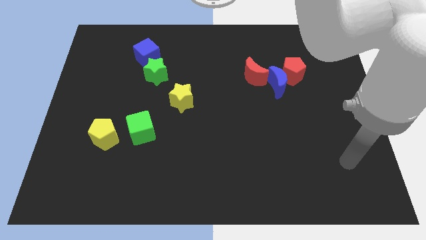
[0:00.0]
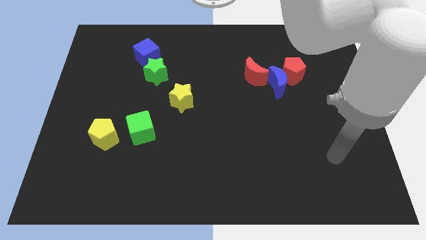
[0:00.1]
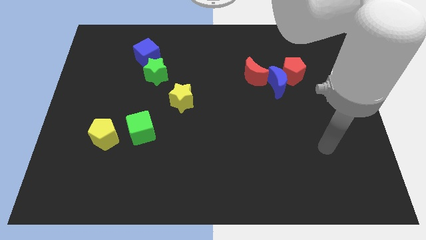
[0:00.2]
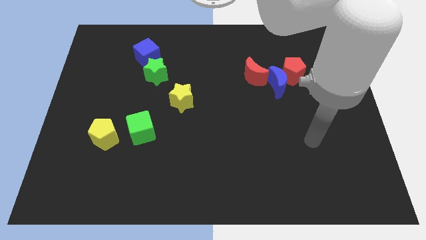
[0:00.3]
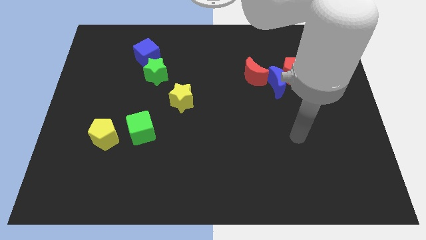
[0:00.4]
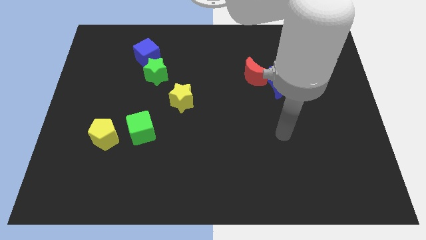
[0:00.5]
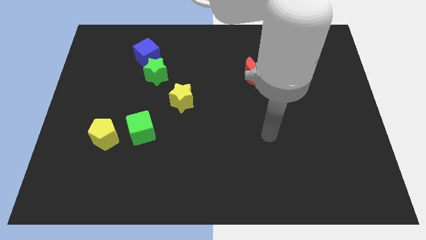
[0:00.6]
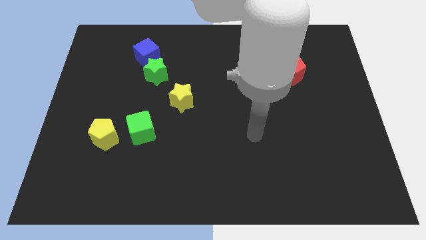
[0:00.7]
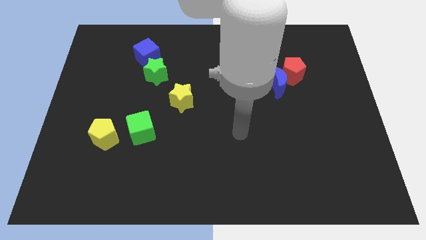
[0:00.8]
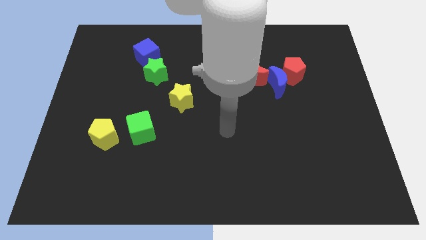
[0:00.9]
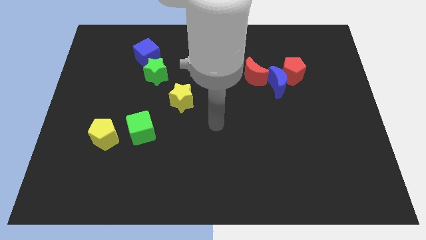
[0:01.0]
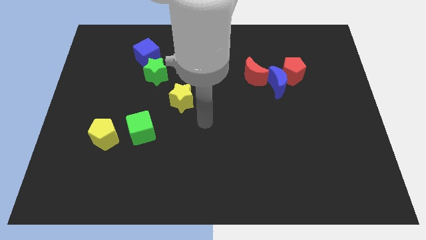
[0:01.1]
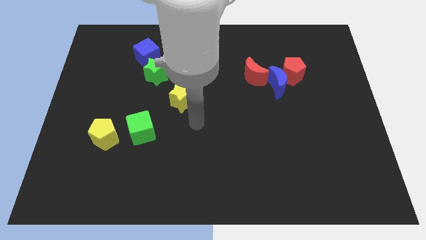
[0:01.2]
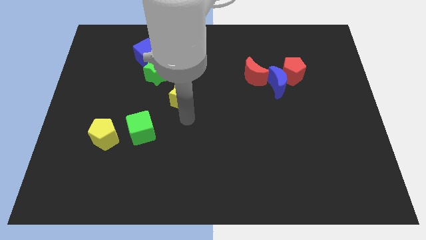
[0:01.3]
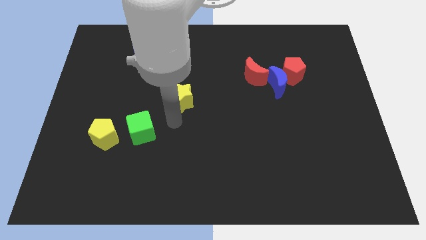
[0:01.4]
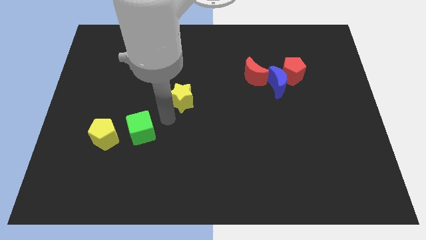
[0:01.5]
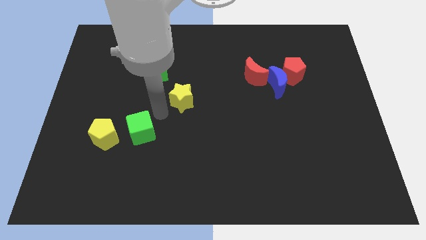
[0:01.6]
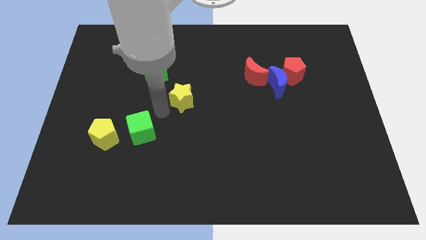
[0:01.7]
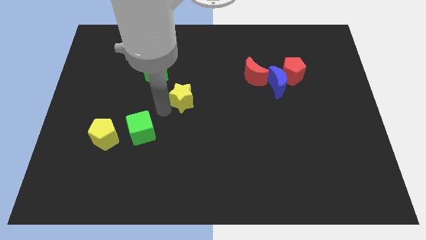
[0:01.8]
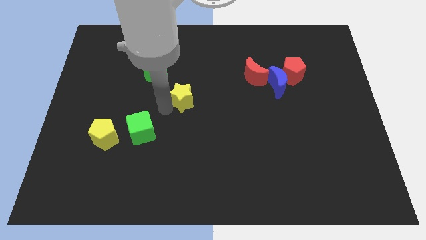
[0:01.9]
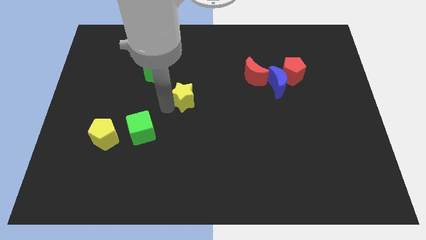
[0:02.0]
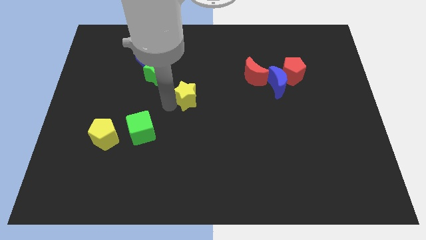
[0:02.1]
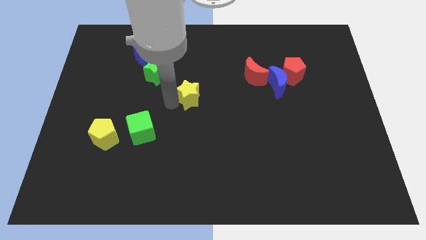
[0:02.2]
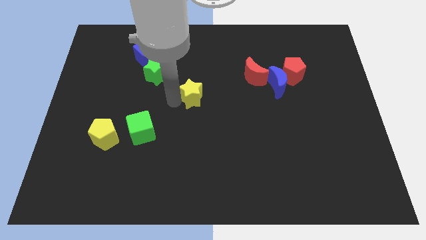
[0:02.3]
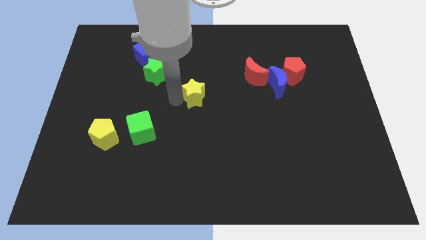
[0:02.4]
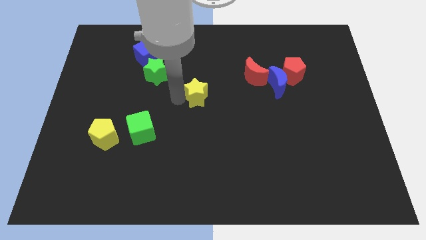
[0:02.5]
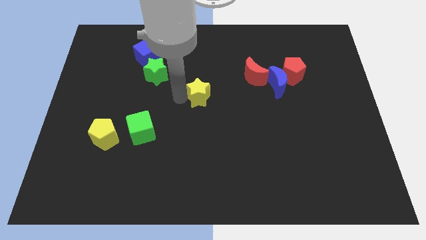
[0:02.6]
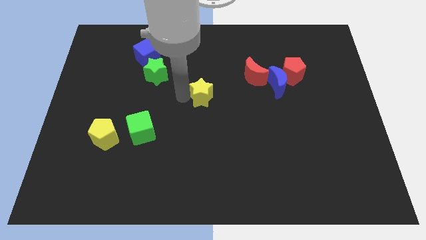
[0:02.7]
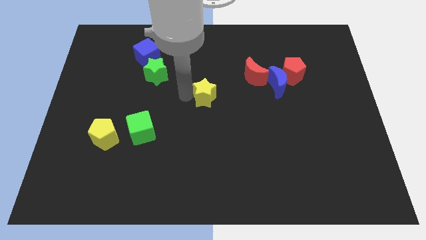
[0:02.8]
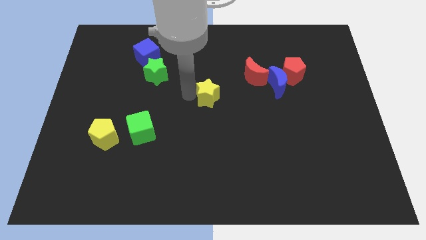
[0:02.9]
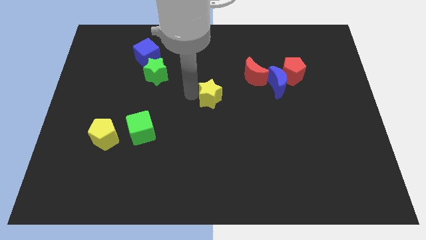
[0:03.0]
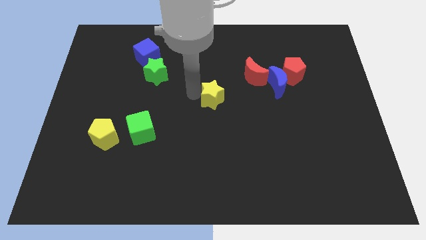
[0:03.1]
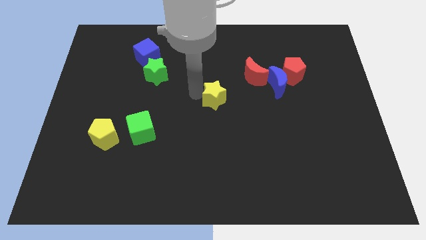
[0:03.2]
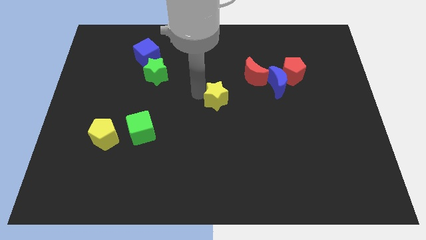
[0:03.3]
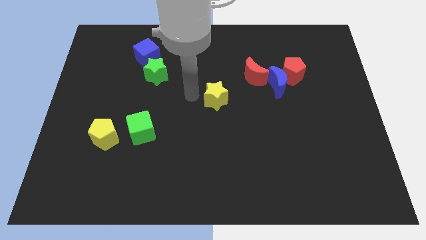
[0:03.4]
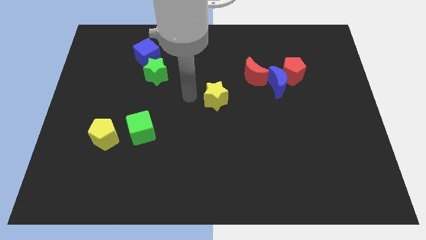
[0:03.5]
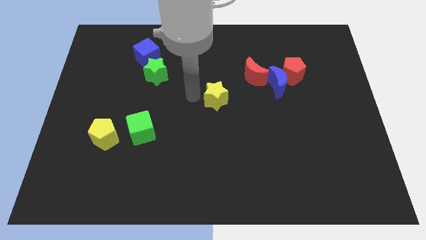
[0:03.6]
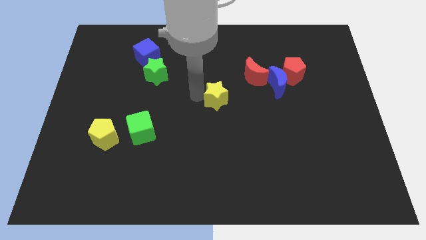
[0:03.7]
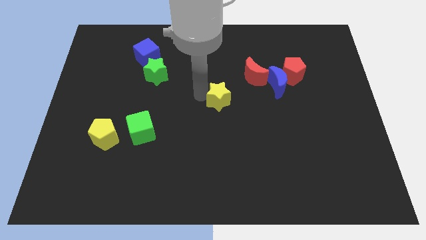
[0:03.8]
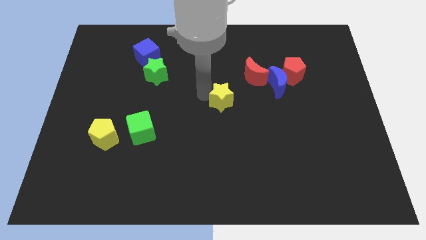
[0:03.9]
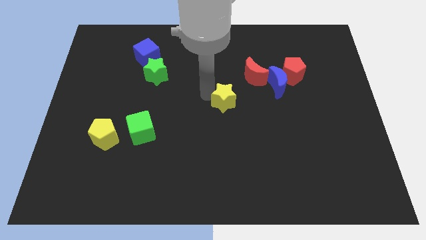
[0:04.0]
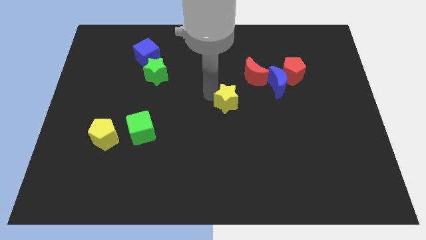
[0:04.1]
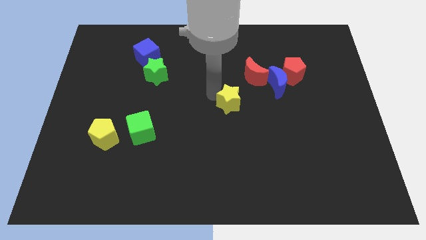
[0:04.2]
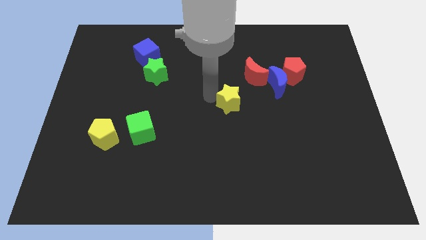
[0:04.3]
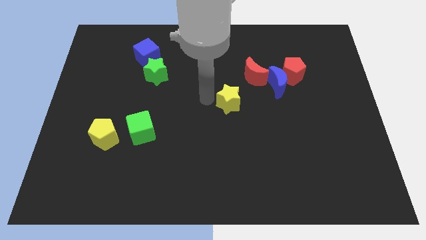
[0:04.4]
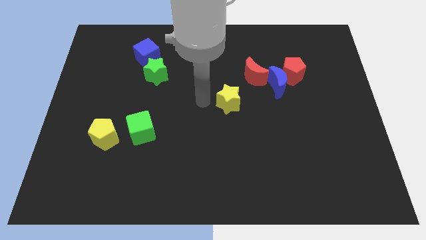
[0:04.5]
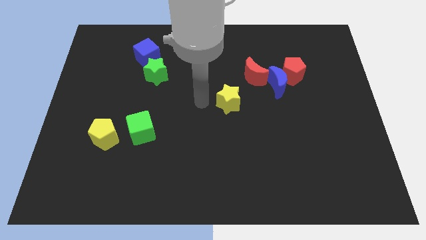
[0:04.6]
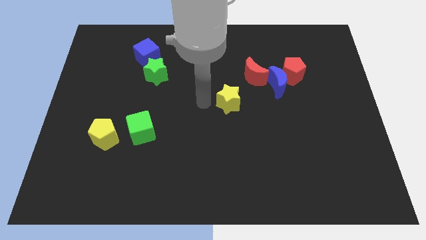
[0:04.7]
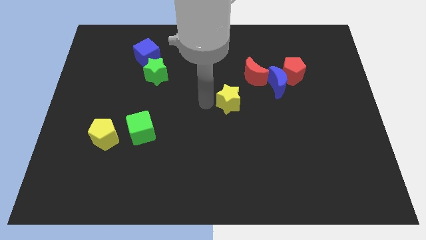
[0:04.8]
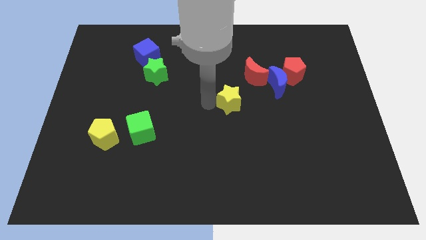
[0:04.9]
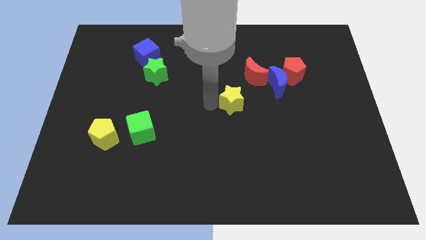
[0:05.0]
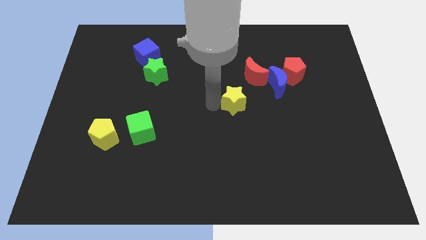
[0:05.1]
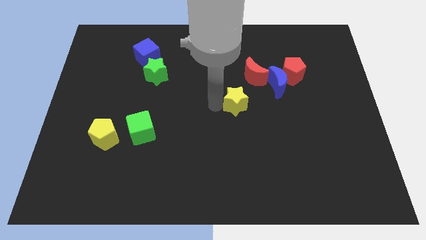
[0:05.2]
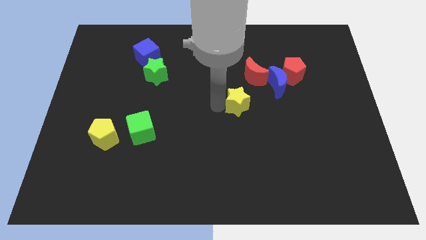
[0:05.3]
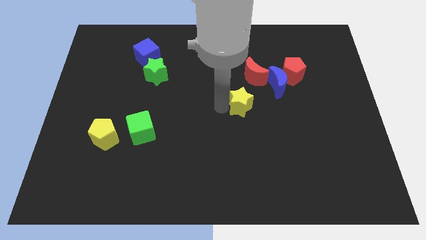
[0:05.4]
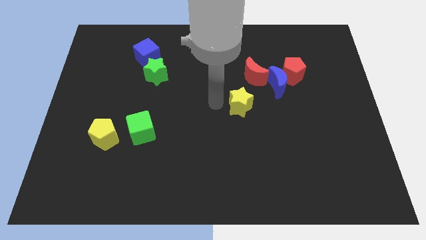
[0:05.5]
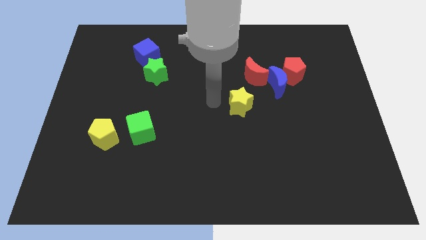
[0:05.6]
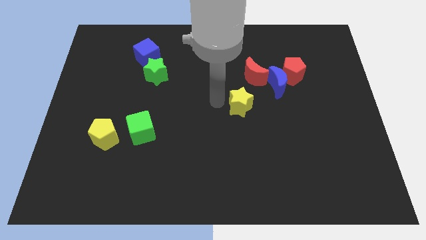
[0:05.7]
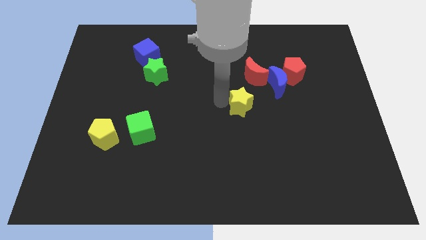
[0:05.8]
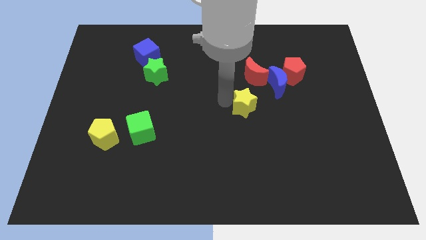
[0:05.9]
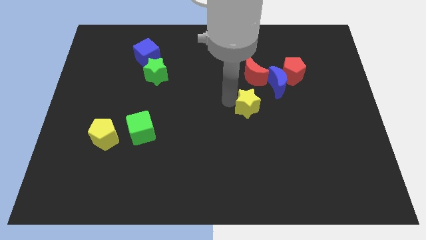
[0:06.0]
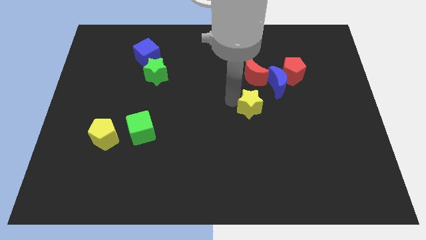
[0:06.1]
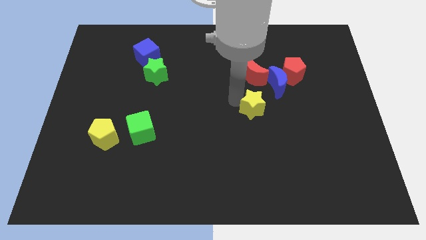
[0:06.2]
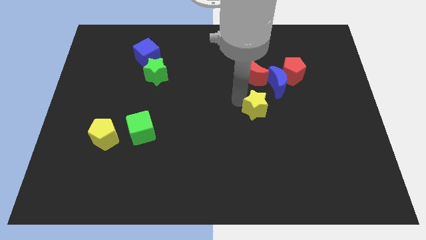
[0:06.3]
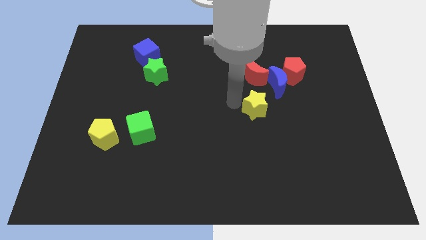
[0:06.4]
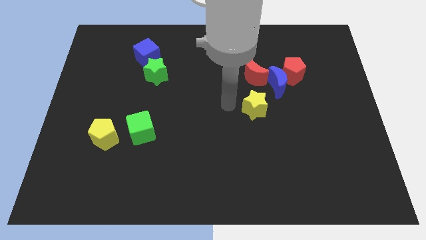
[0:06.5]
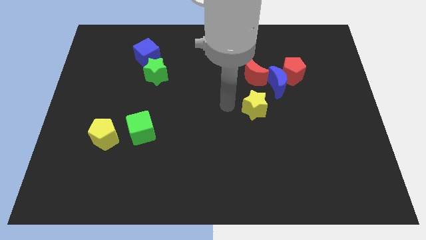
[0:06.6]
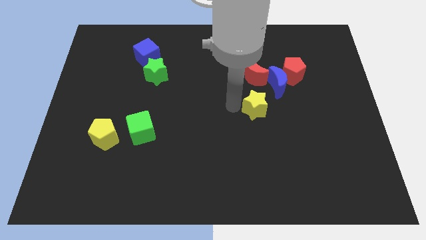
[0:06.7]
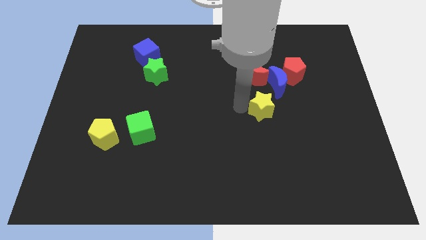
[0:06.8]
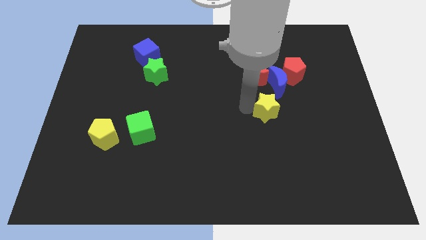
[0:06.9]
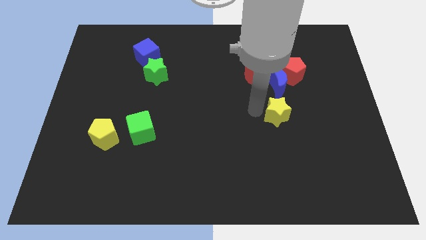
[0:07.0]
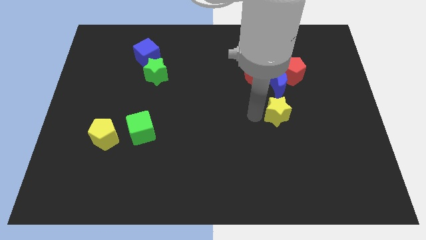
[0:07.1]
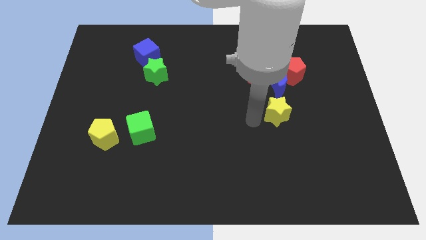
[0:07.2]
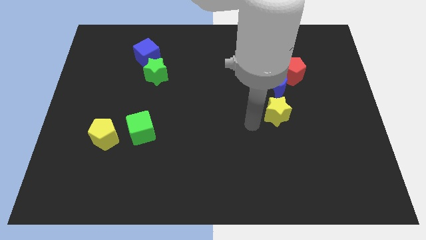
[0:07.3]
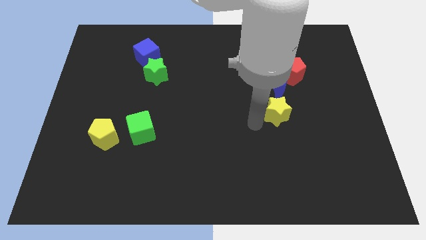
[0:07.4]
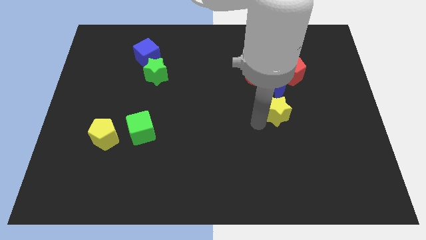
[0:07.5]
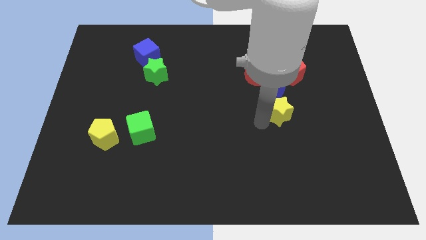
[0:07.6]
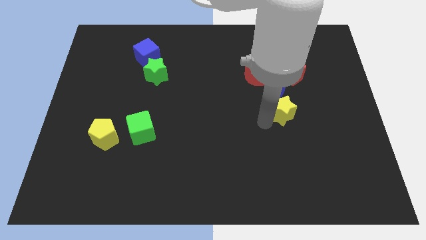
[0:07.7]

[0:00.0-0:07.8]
slide the yellow star below the red pentagon
